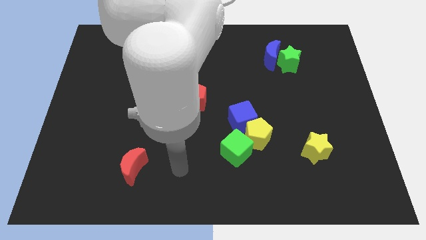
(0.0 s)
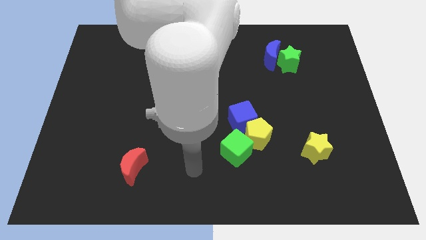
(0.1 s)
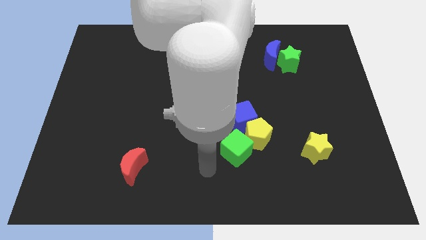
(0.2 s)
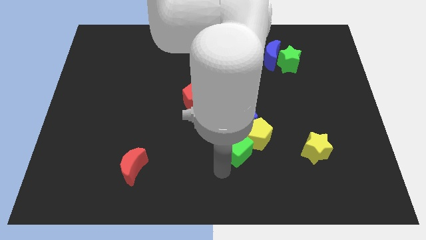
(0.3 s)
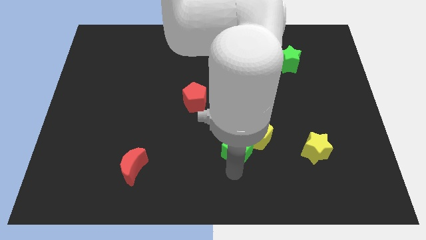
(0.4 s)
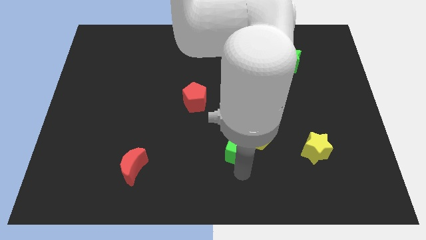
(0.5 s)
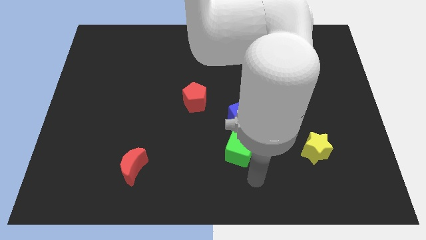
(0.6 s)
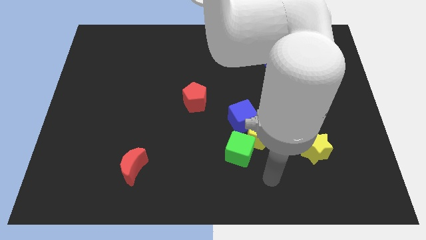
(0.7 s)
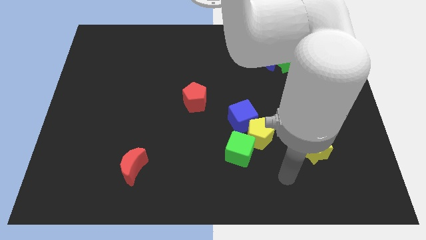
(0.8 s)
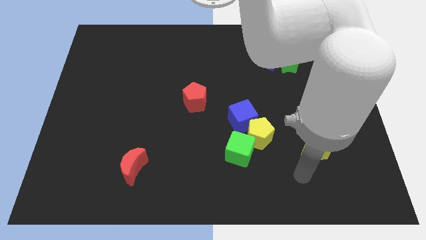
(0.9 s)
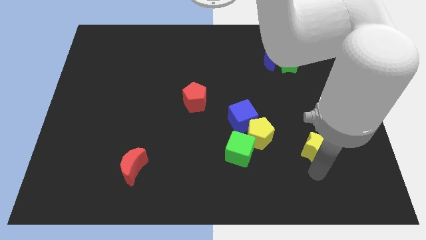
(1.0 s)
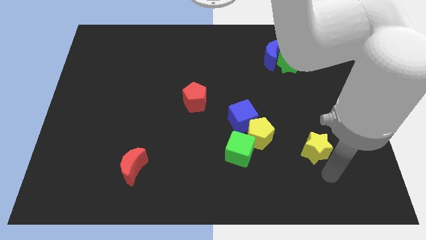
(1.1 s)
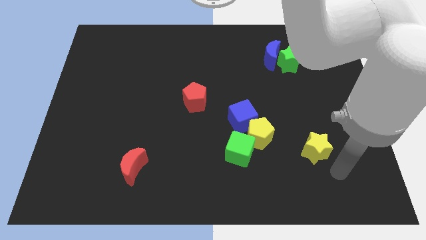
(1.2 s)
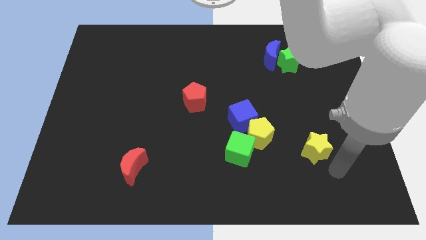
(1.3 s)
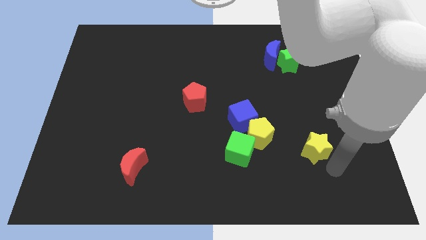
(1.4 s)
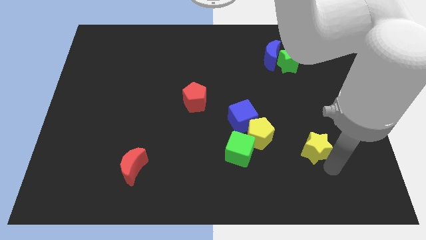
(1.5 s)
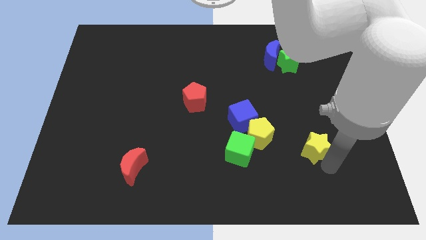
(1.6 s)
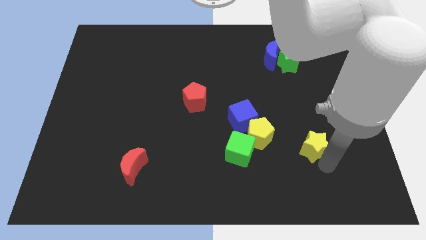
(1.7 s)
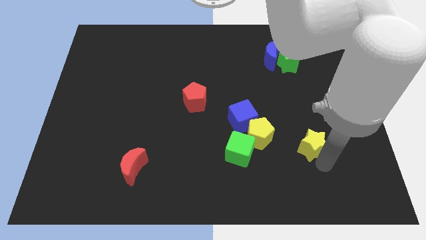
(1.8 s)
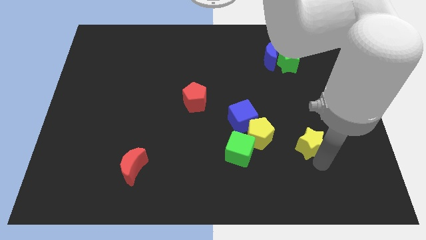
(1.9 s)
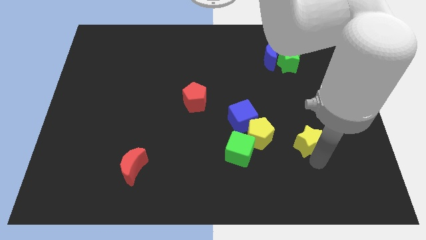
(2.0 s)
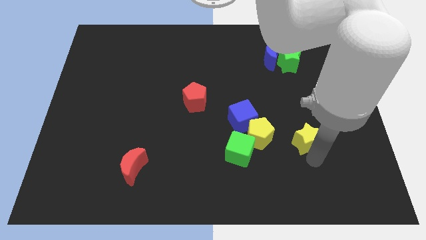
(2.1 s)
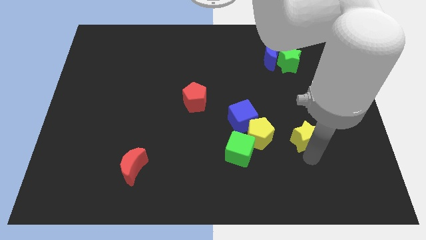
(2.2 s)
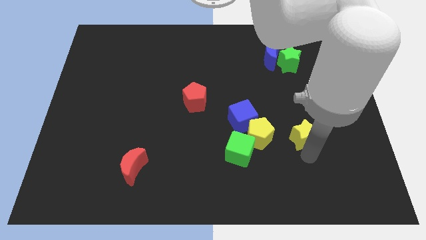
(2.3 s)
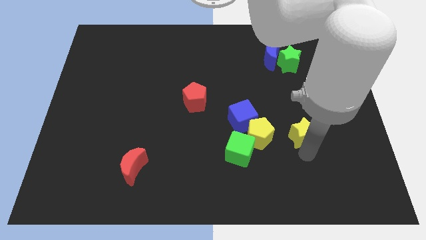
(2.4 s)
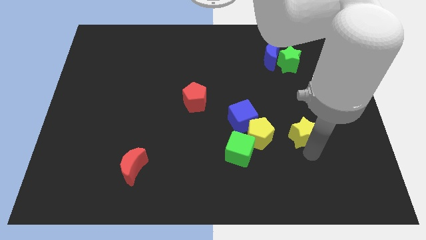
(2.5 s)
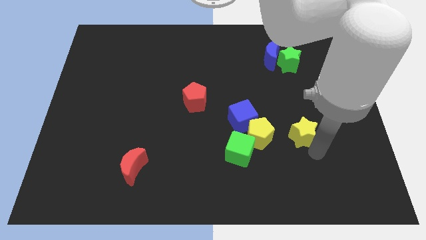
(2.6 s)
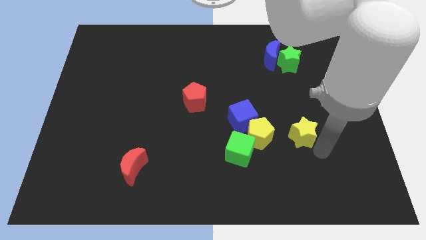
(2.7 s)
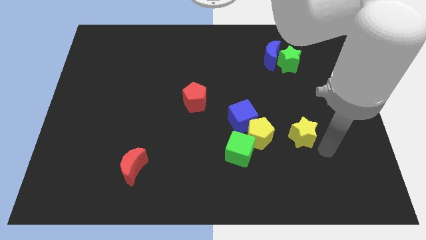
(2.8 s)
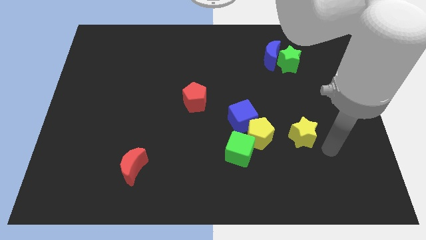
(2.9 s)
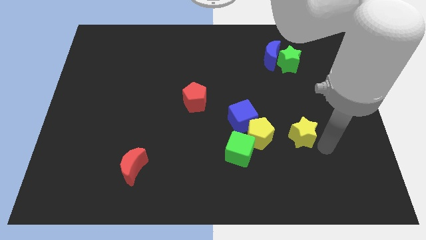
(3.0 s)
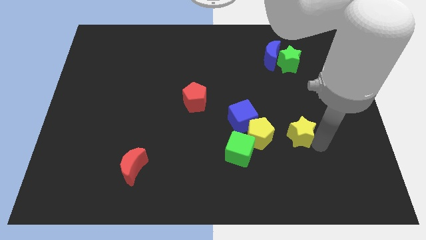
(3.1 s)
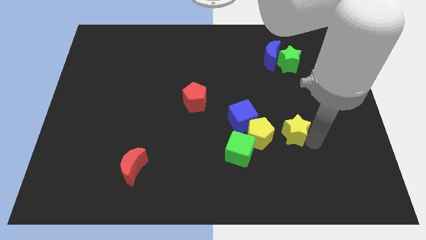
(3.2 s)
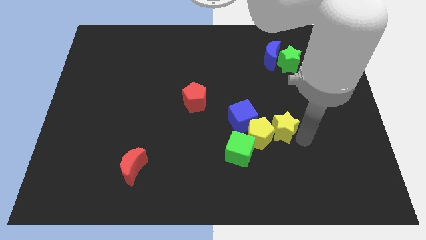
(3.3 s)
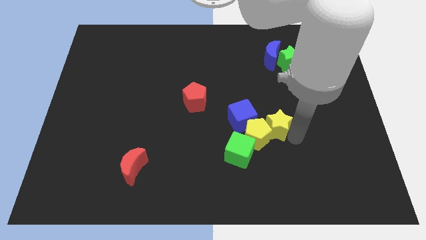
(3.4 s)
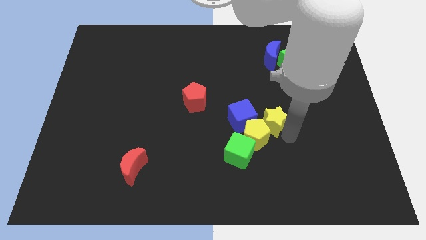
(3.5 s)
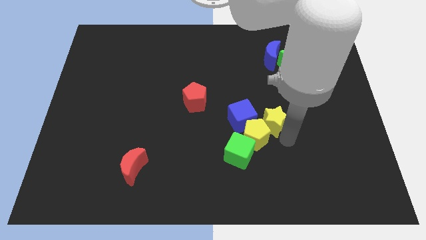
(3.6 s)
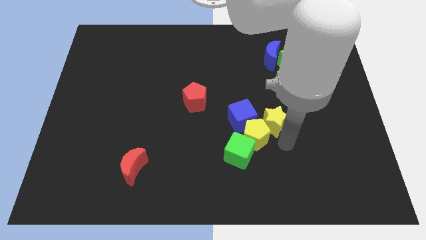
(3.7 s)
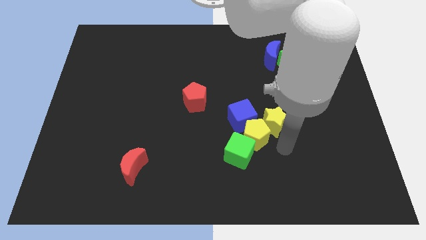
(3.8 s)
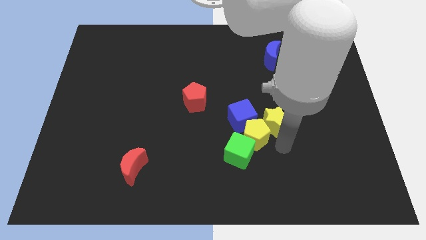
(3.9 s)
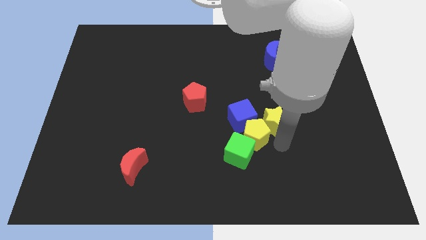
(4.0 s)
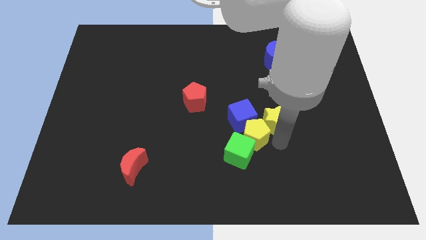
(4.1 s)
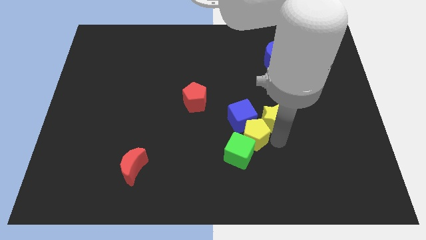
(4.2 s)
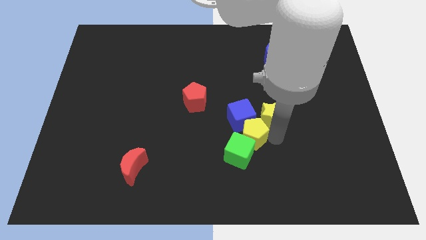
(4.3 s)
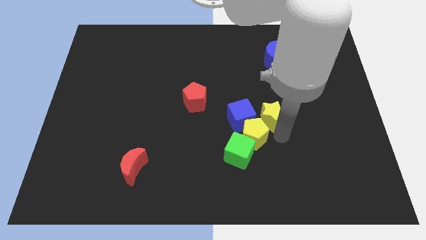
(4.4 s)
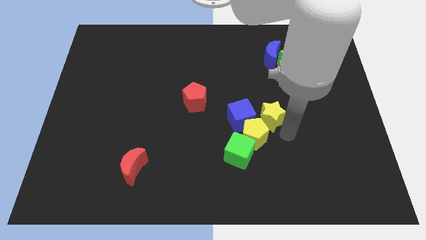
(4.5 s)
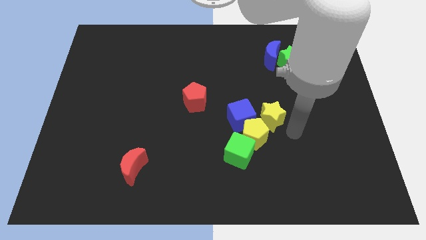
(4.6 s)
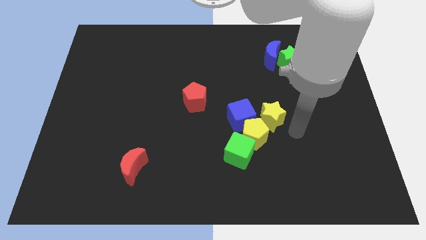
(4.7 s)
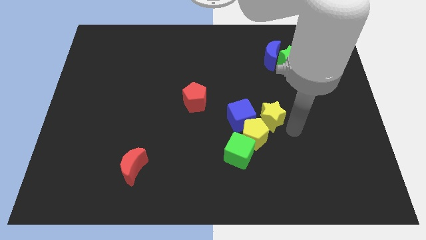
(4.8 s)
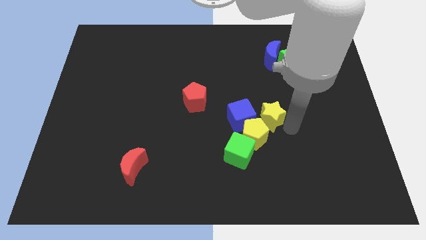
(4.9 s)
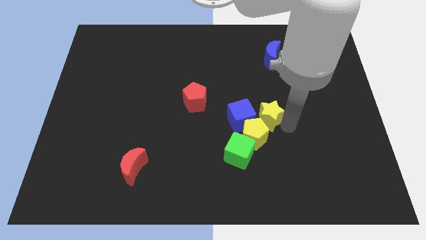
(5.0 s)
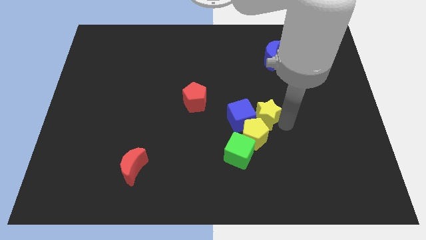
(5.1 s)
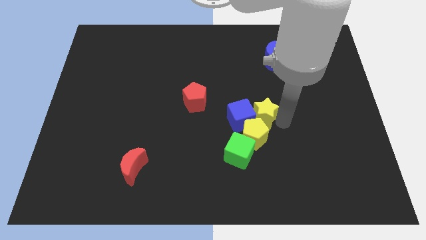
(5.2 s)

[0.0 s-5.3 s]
put the yellow star to the middle of the board

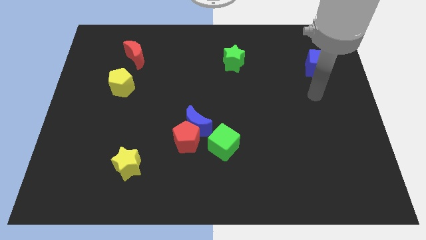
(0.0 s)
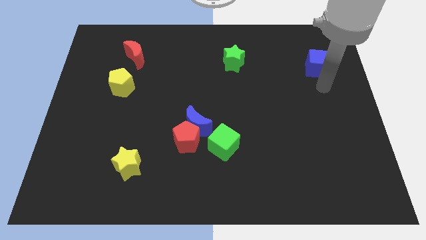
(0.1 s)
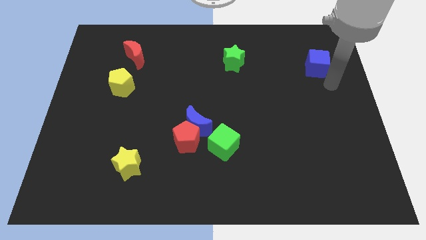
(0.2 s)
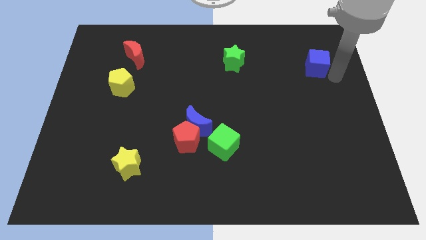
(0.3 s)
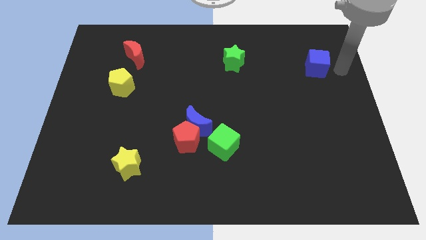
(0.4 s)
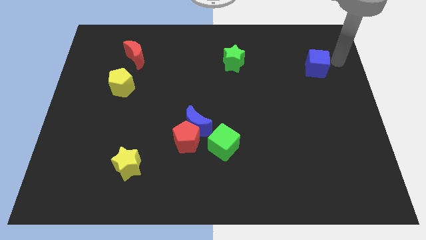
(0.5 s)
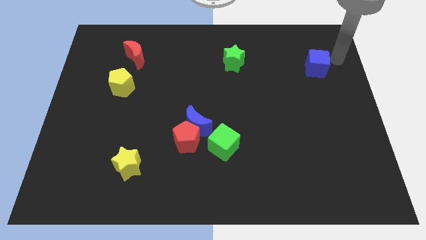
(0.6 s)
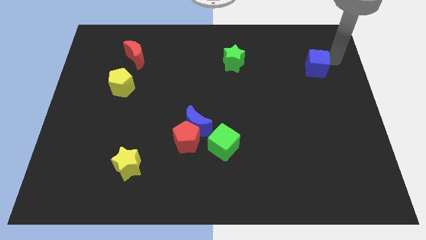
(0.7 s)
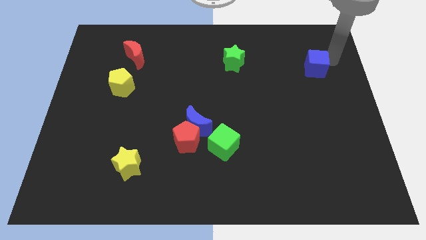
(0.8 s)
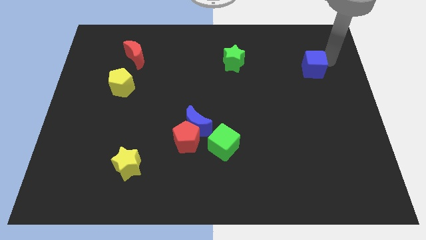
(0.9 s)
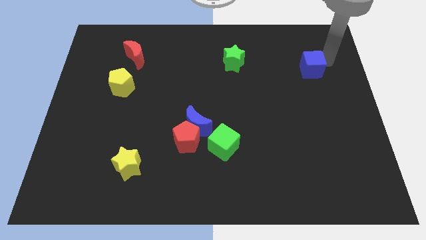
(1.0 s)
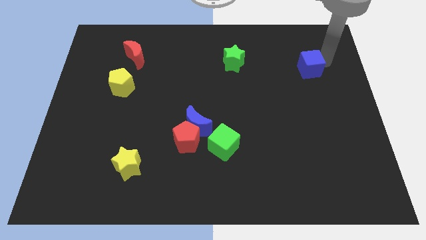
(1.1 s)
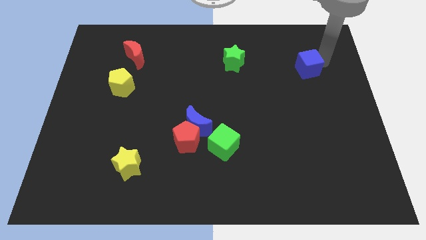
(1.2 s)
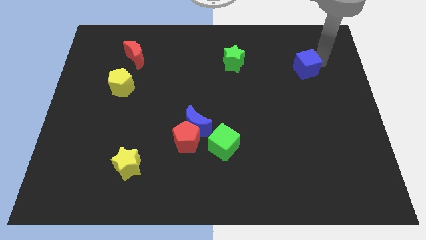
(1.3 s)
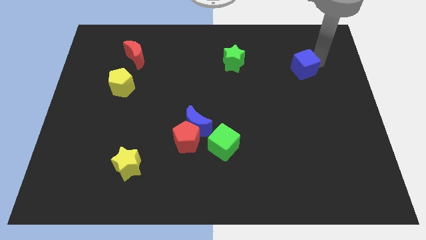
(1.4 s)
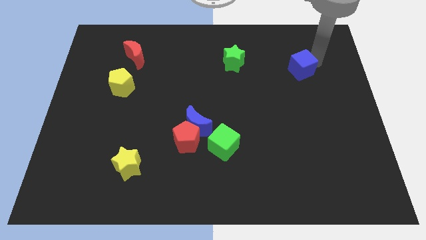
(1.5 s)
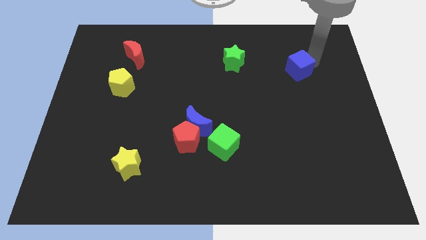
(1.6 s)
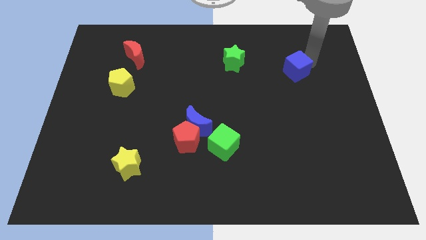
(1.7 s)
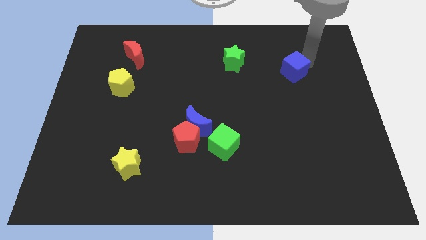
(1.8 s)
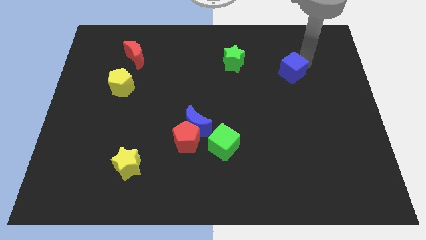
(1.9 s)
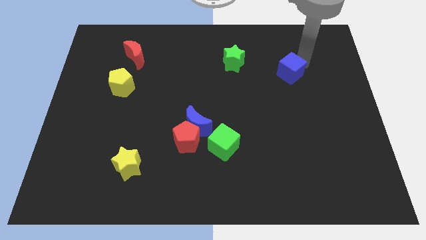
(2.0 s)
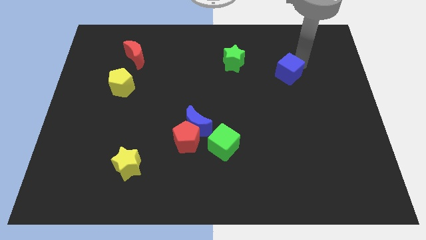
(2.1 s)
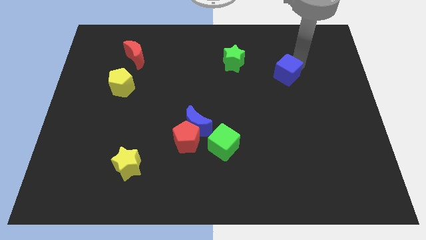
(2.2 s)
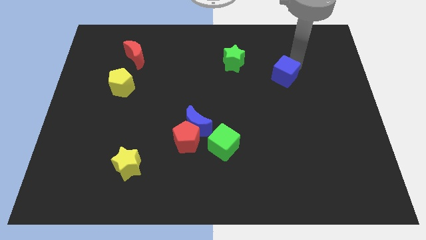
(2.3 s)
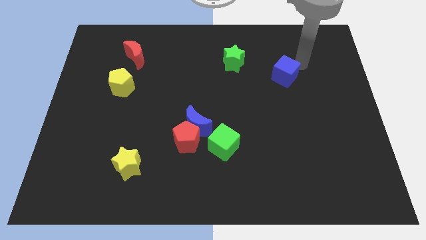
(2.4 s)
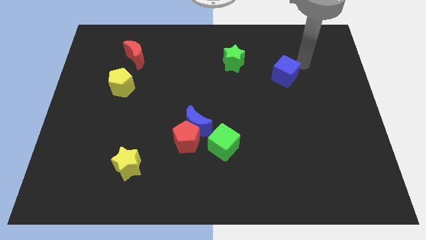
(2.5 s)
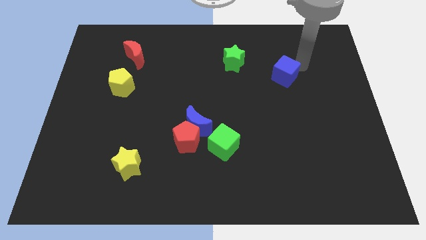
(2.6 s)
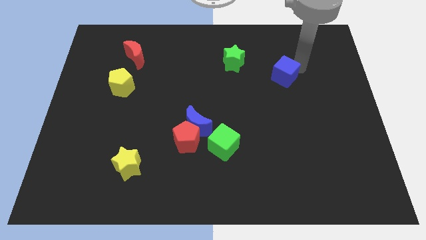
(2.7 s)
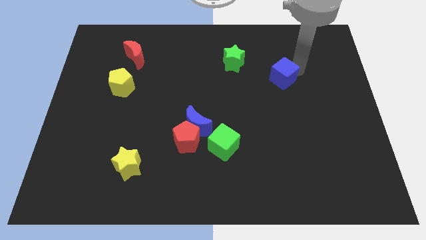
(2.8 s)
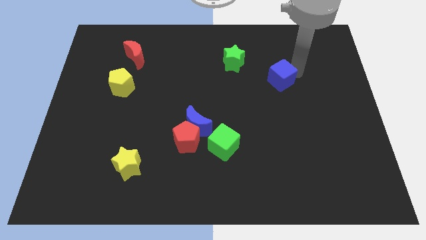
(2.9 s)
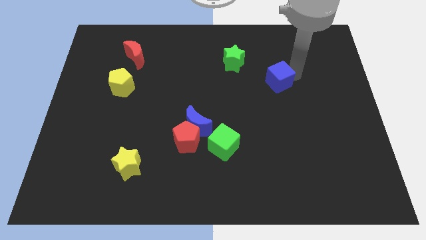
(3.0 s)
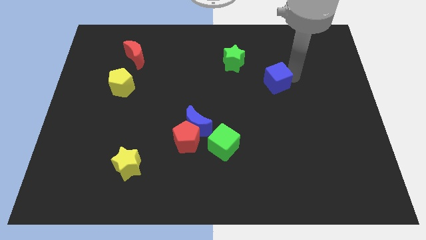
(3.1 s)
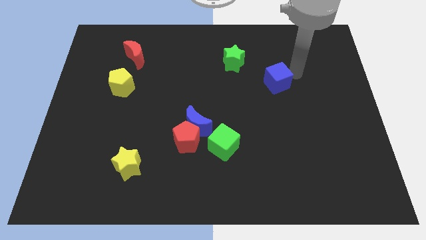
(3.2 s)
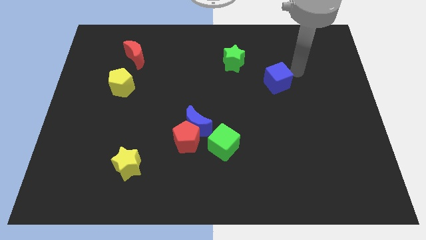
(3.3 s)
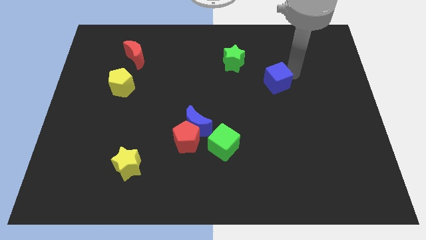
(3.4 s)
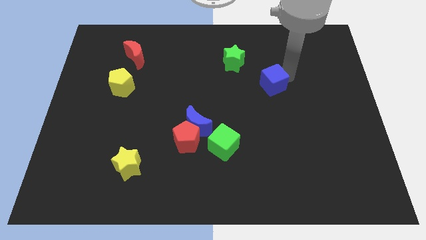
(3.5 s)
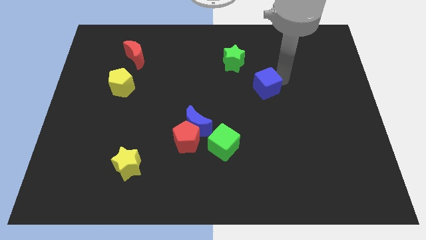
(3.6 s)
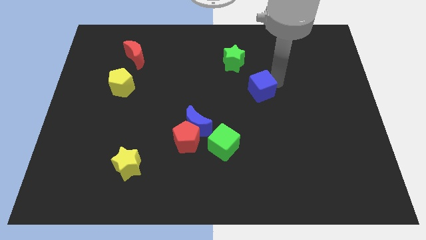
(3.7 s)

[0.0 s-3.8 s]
put the blue cube to the middle of the board
